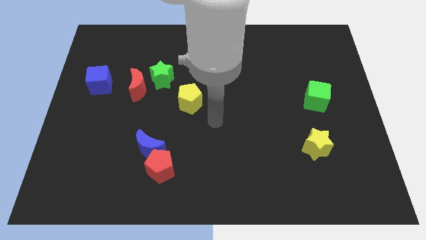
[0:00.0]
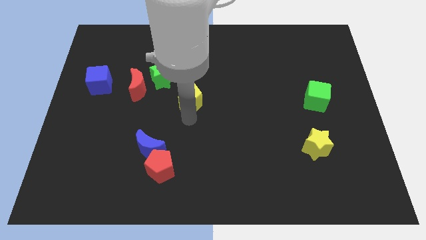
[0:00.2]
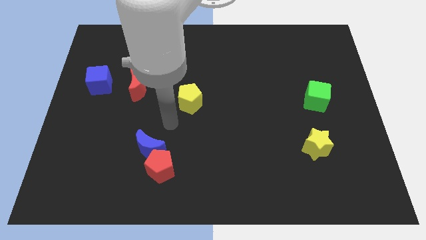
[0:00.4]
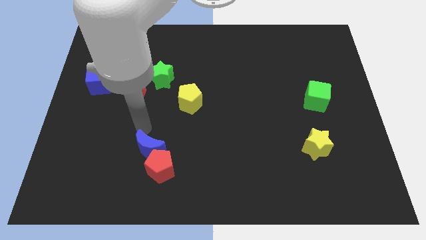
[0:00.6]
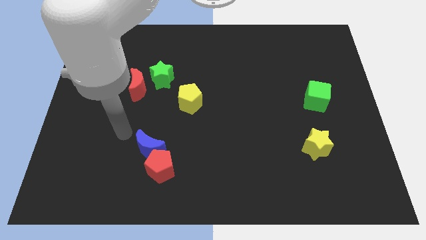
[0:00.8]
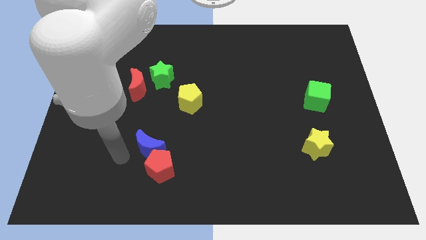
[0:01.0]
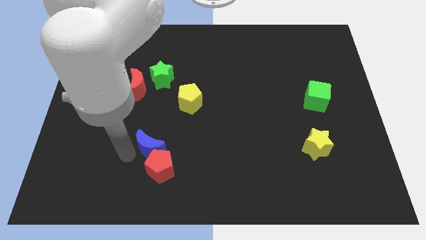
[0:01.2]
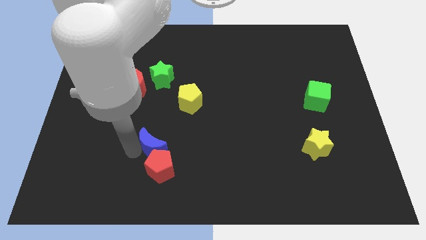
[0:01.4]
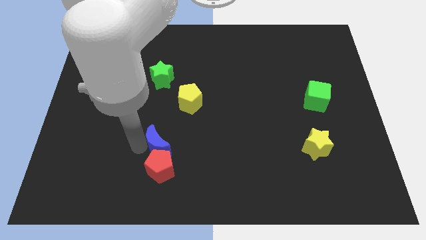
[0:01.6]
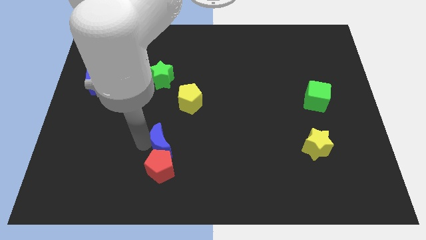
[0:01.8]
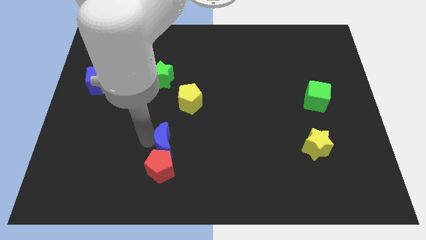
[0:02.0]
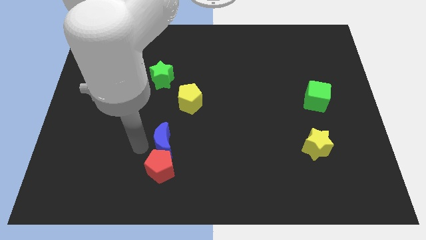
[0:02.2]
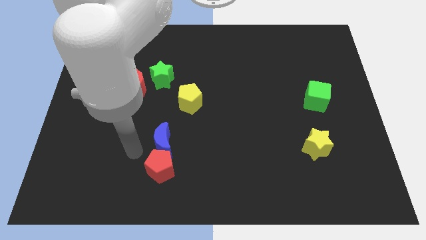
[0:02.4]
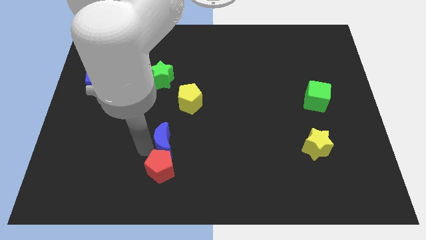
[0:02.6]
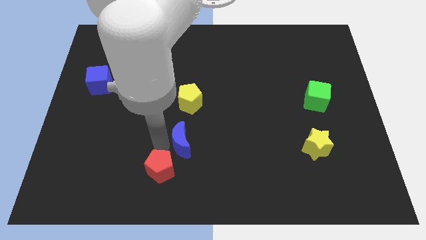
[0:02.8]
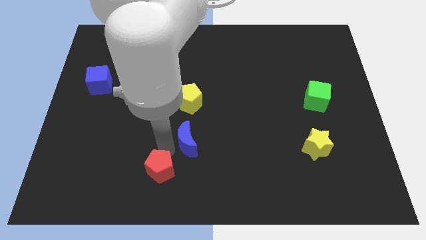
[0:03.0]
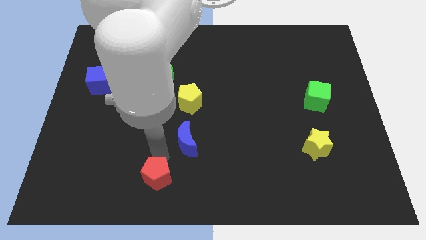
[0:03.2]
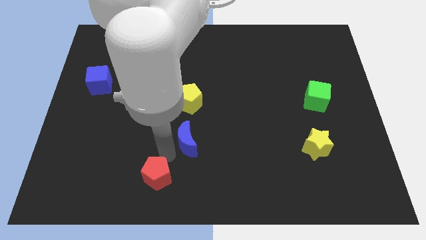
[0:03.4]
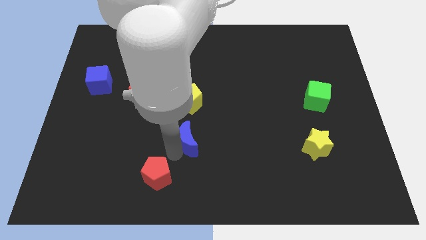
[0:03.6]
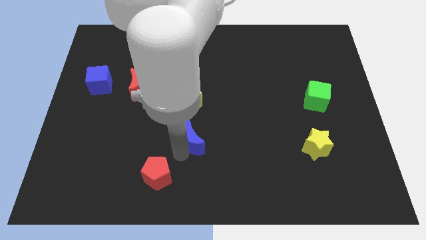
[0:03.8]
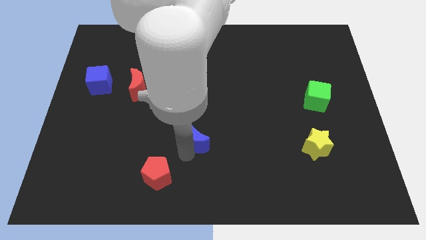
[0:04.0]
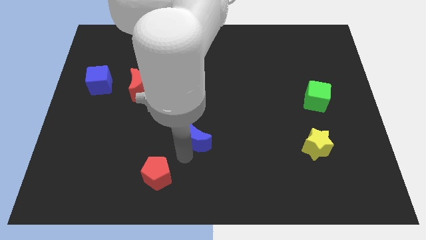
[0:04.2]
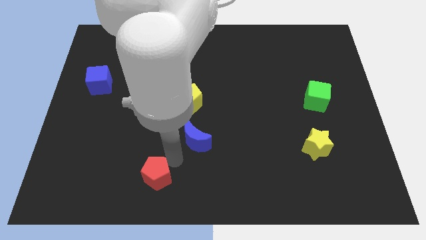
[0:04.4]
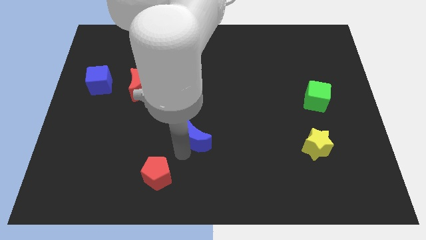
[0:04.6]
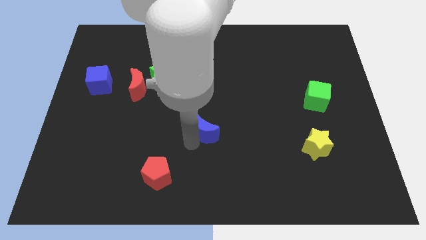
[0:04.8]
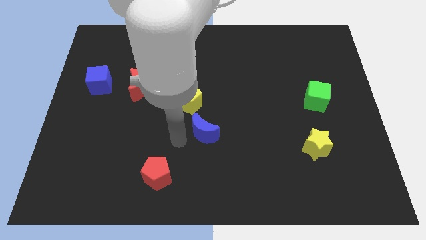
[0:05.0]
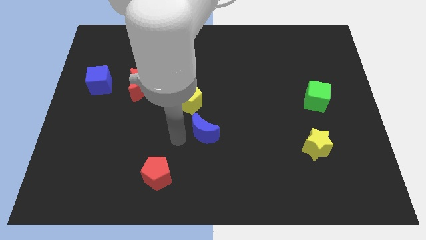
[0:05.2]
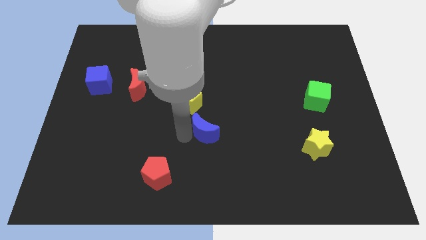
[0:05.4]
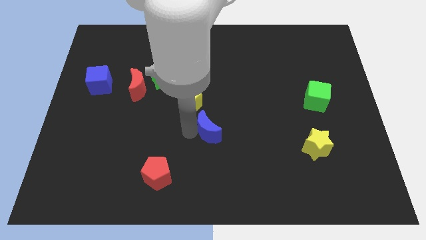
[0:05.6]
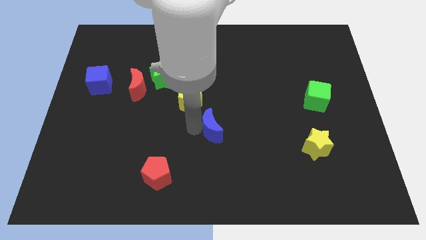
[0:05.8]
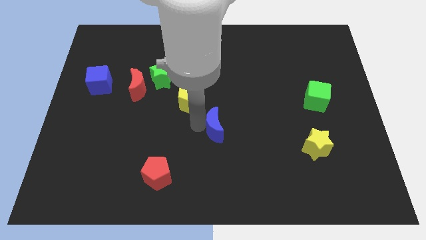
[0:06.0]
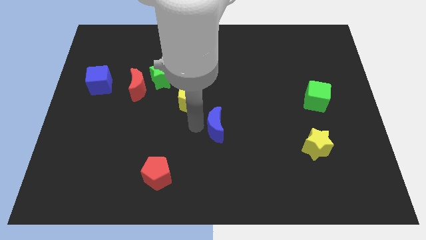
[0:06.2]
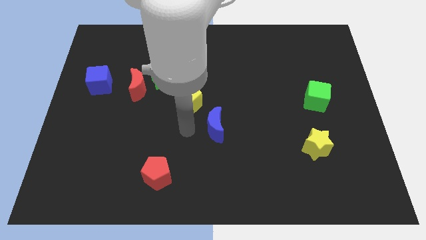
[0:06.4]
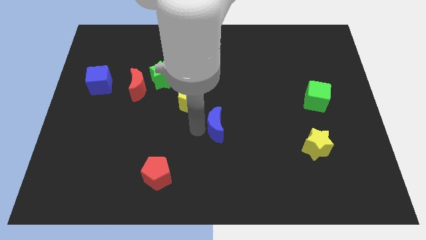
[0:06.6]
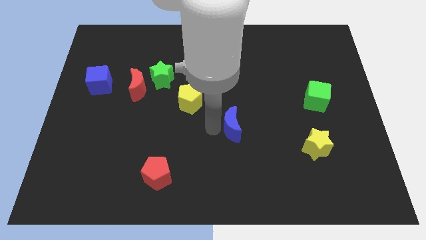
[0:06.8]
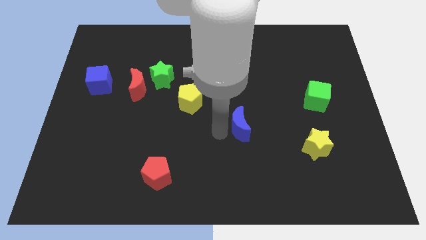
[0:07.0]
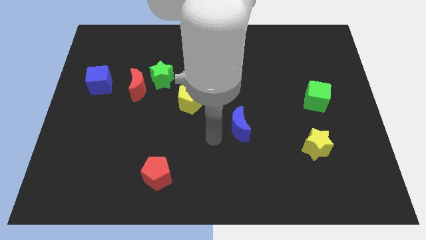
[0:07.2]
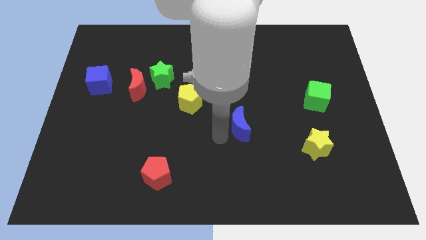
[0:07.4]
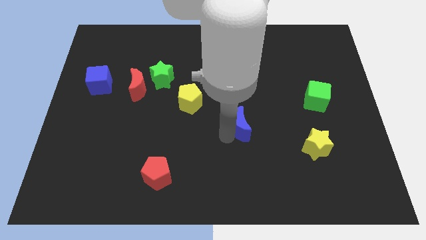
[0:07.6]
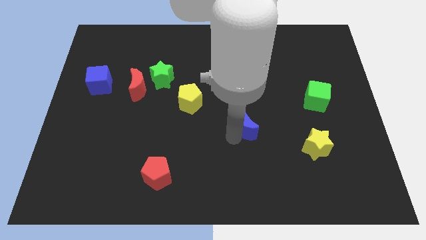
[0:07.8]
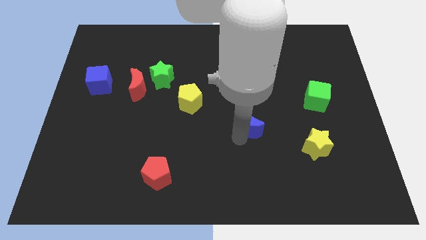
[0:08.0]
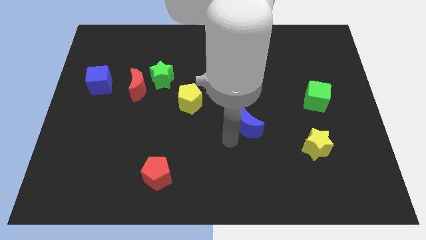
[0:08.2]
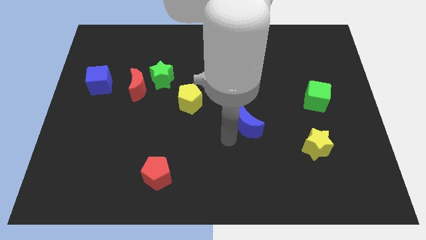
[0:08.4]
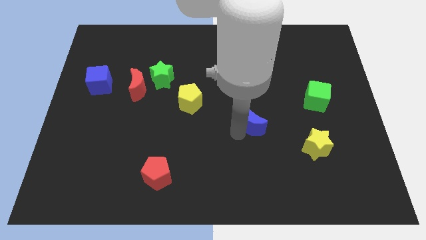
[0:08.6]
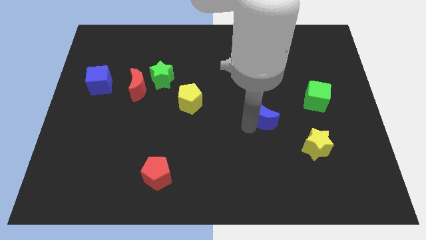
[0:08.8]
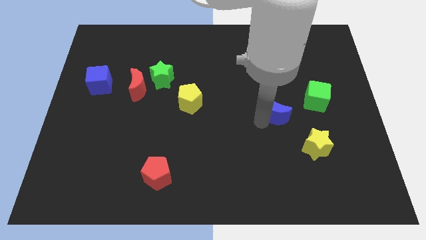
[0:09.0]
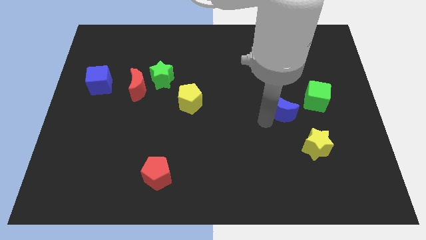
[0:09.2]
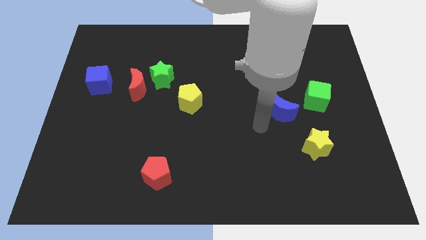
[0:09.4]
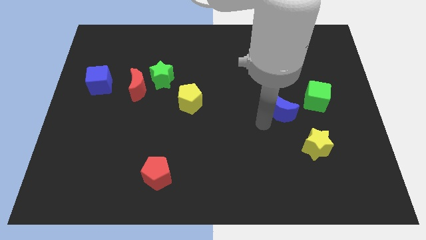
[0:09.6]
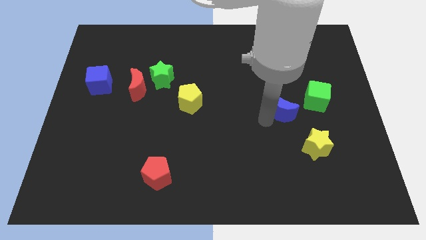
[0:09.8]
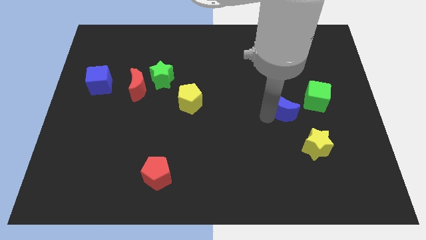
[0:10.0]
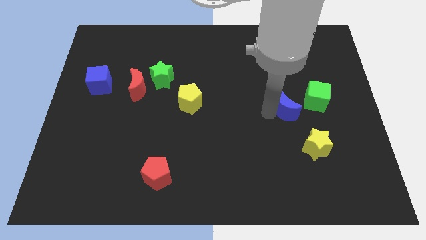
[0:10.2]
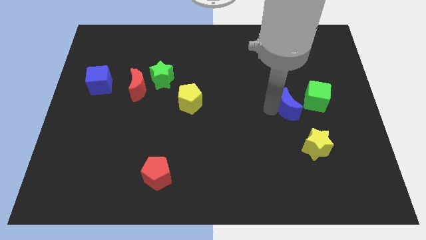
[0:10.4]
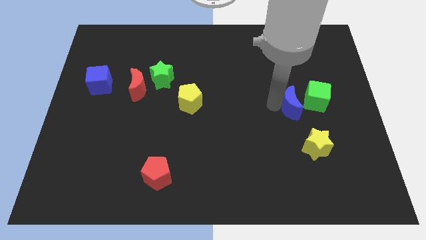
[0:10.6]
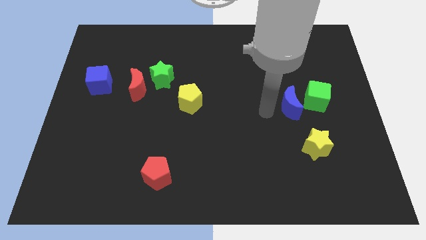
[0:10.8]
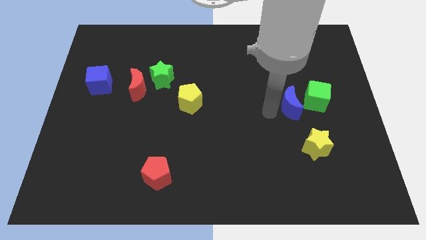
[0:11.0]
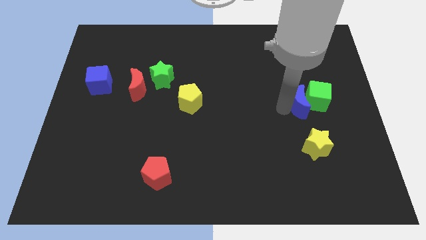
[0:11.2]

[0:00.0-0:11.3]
move the blue moon to the green cube

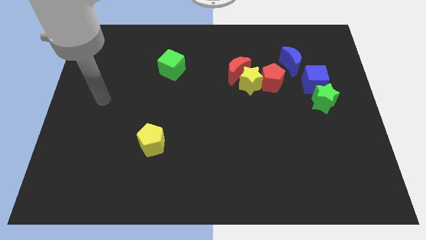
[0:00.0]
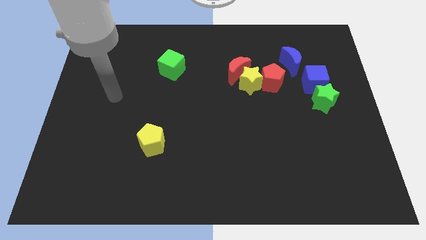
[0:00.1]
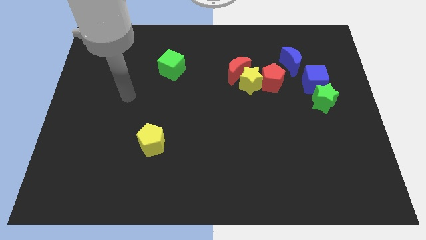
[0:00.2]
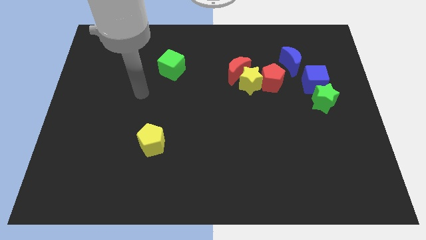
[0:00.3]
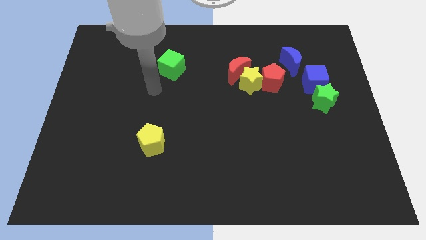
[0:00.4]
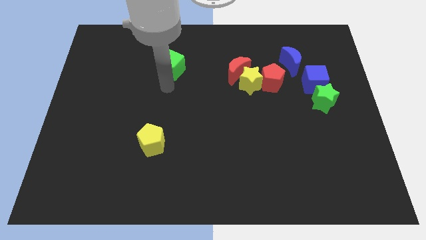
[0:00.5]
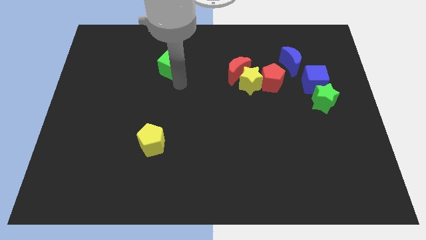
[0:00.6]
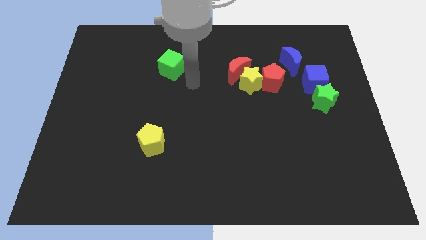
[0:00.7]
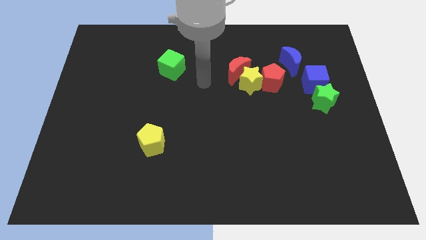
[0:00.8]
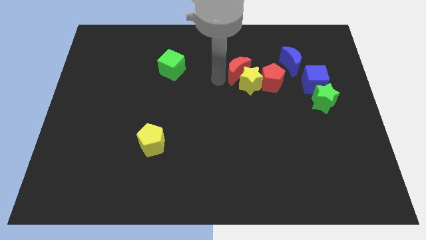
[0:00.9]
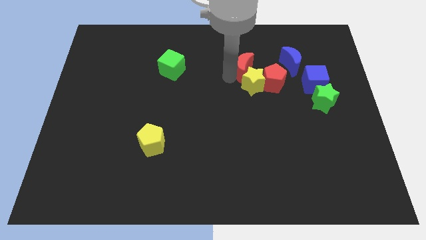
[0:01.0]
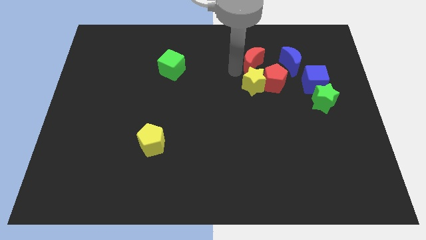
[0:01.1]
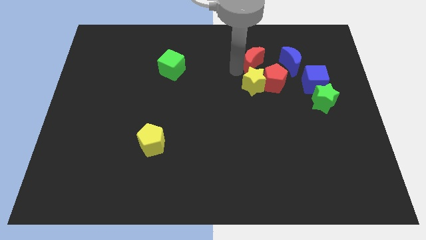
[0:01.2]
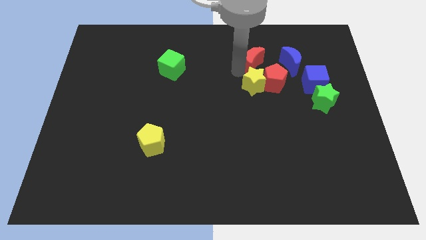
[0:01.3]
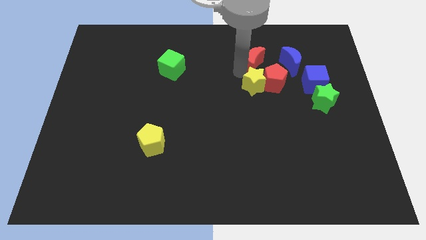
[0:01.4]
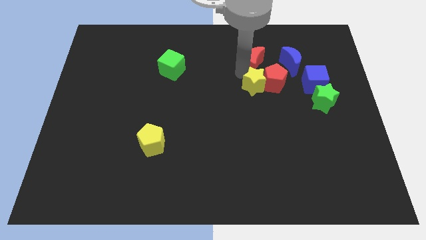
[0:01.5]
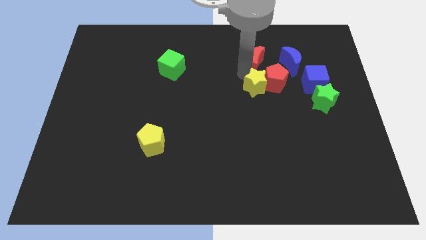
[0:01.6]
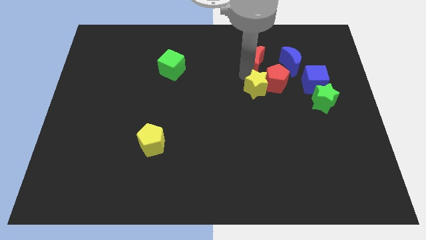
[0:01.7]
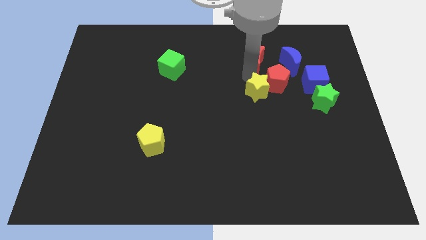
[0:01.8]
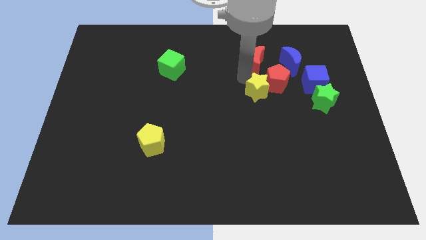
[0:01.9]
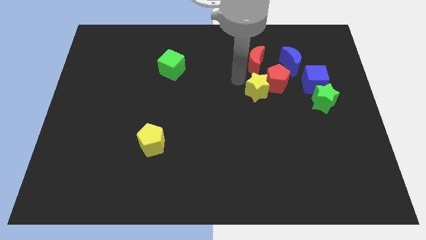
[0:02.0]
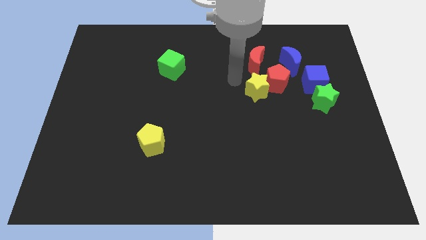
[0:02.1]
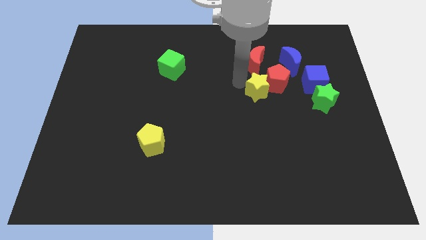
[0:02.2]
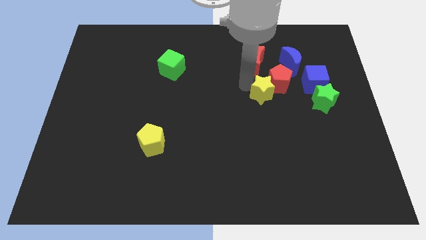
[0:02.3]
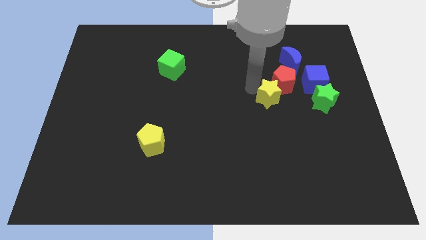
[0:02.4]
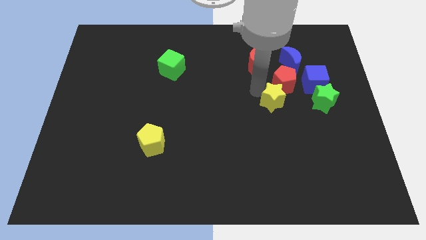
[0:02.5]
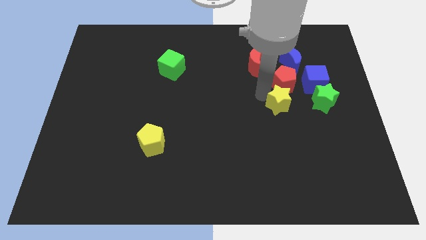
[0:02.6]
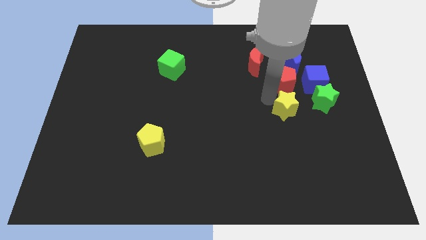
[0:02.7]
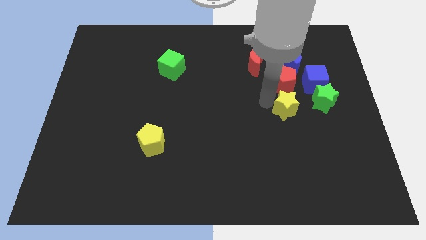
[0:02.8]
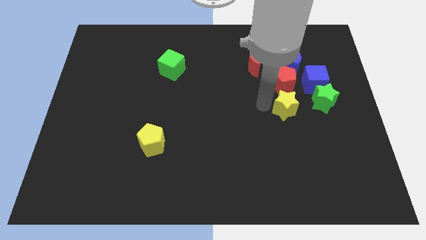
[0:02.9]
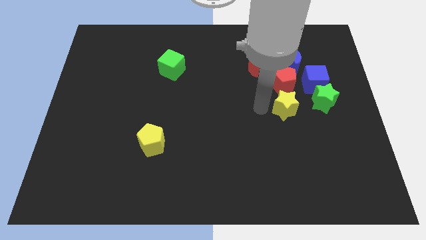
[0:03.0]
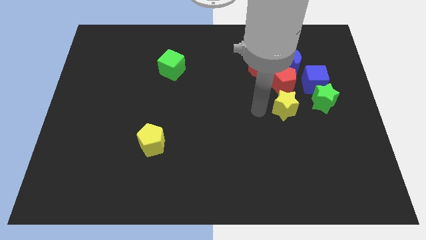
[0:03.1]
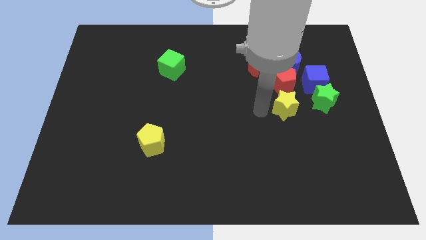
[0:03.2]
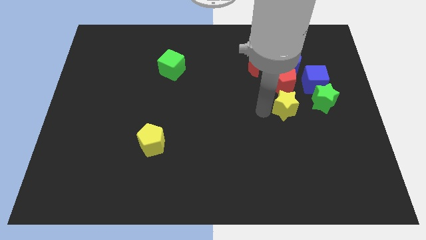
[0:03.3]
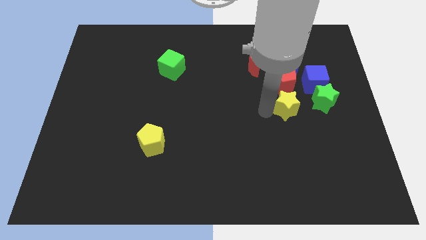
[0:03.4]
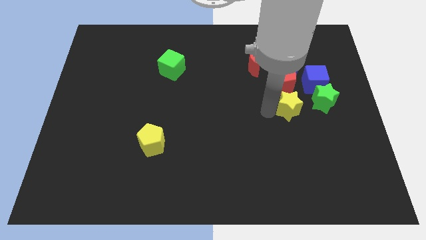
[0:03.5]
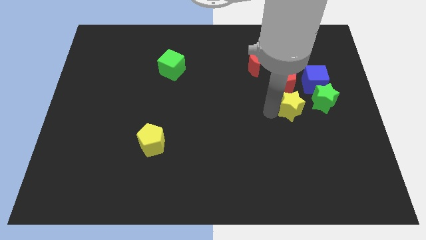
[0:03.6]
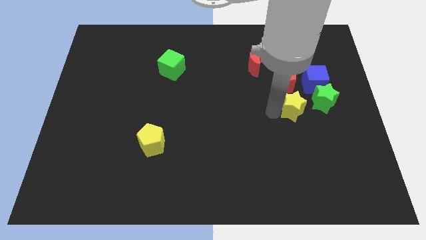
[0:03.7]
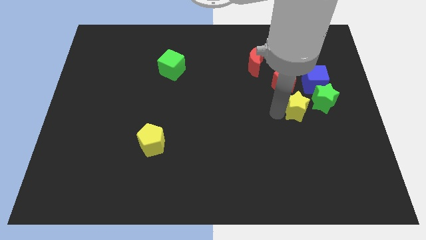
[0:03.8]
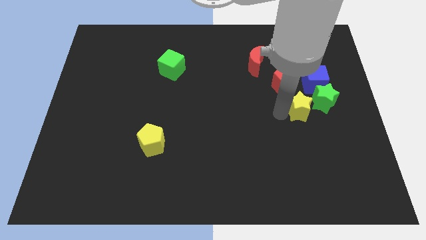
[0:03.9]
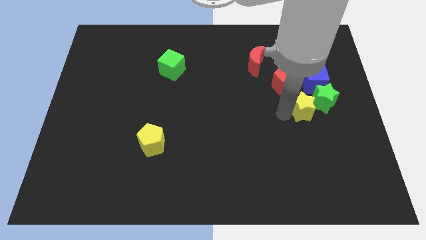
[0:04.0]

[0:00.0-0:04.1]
push the yellow star next to the green star
